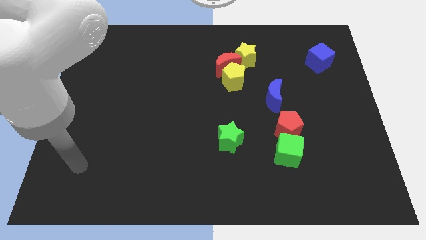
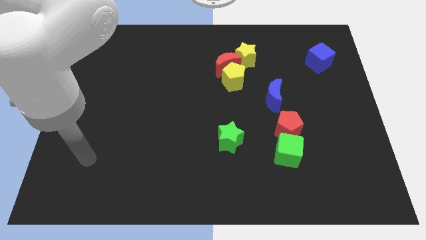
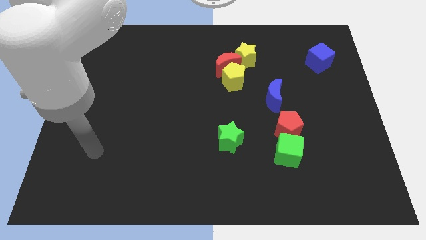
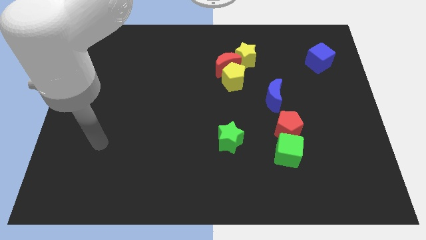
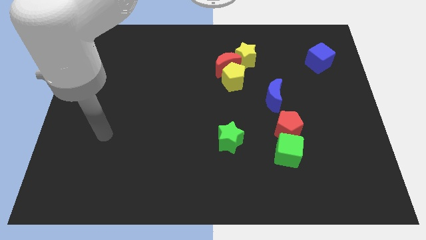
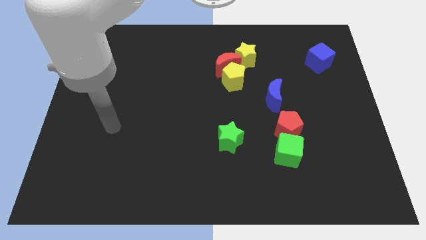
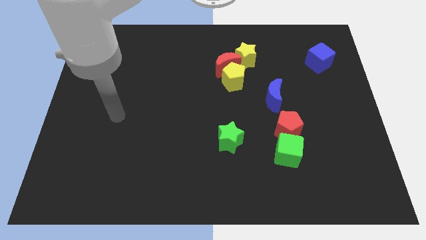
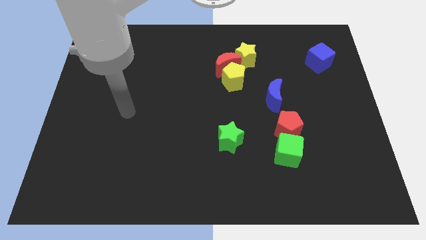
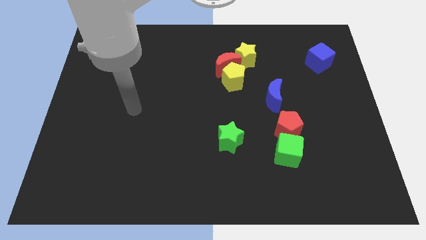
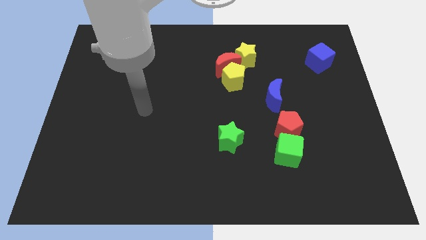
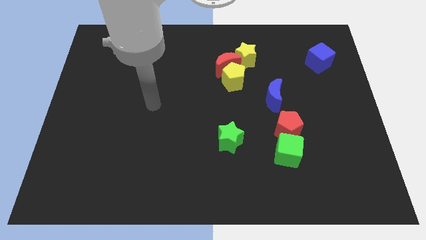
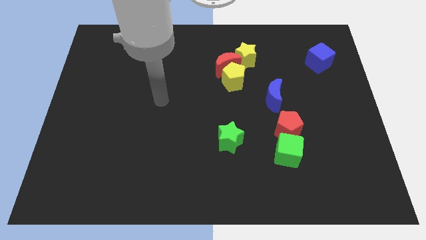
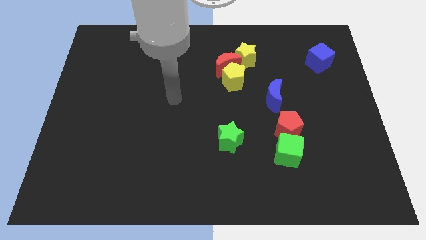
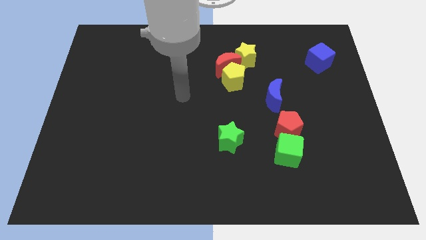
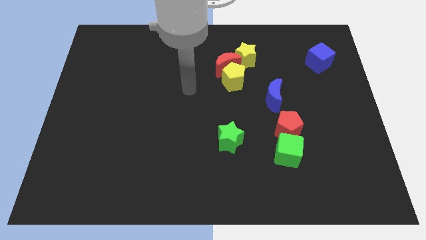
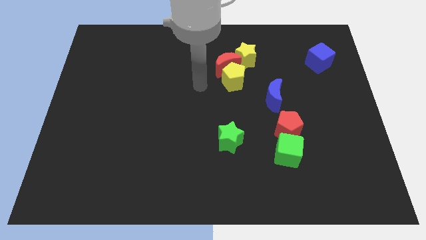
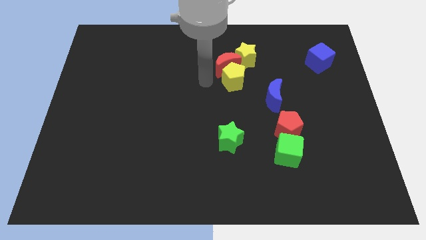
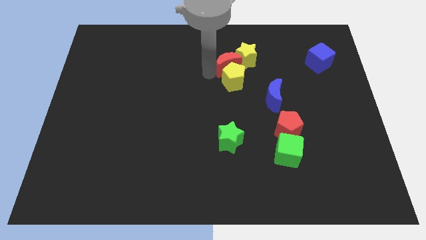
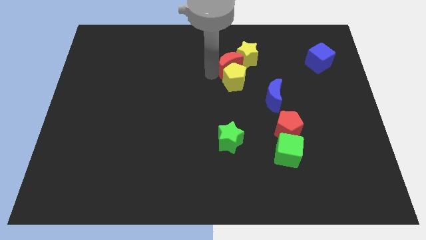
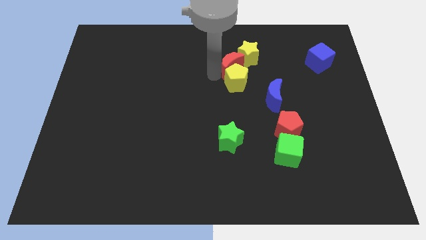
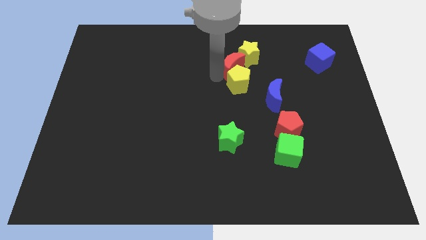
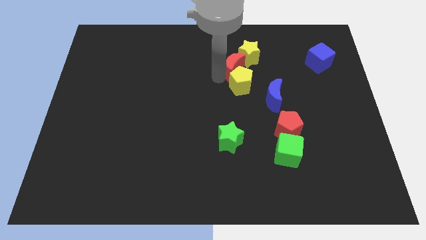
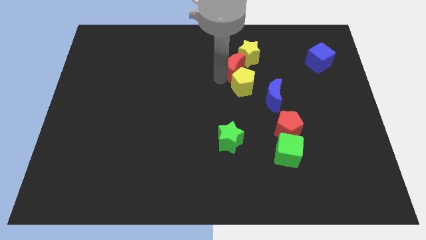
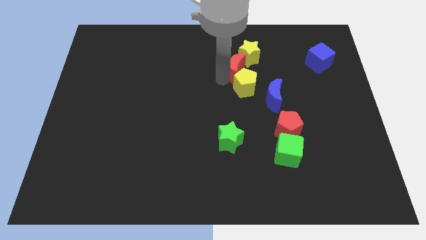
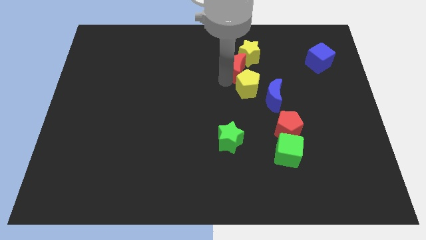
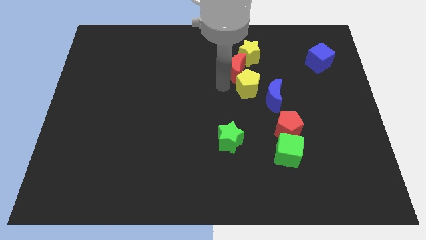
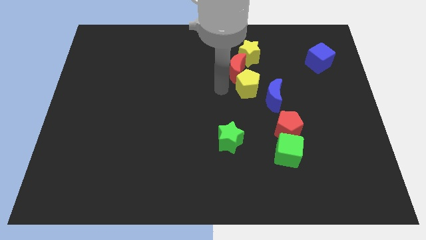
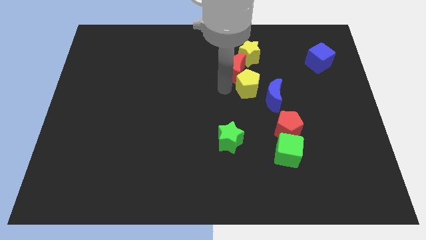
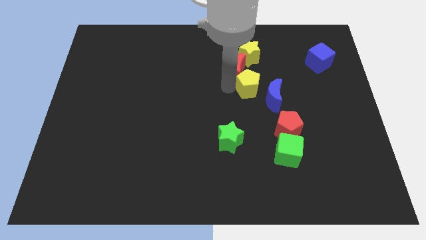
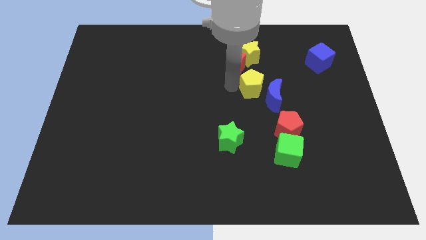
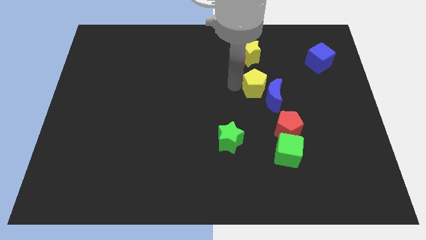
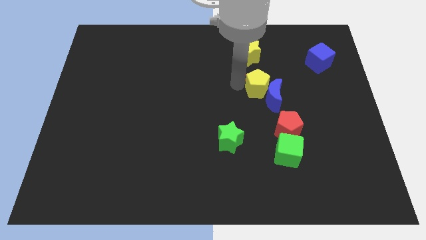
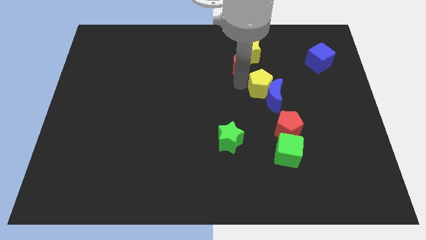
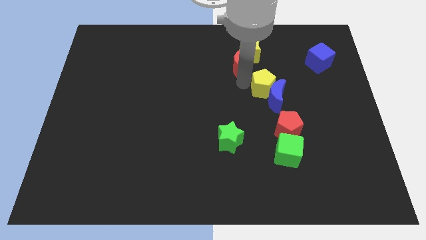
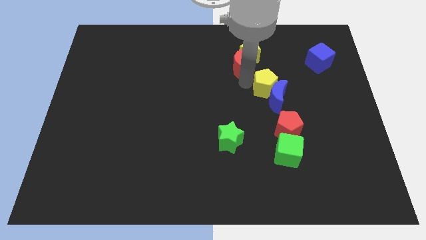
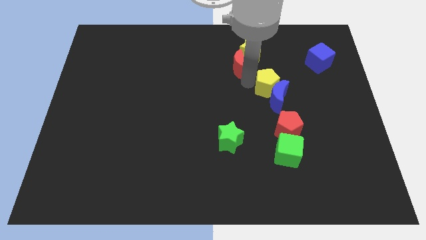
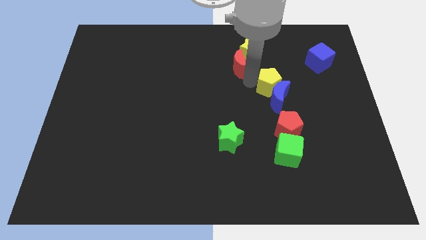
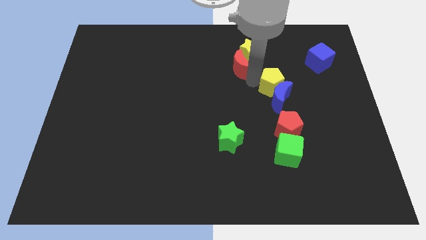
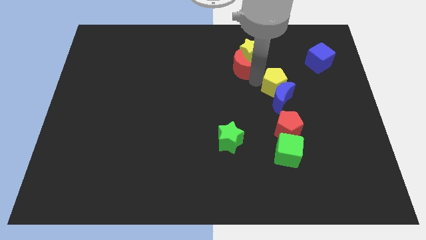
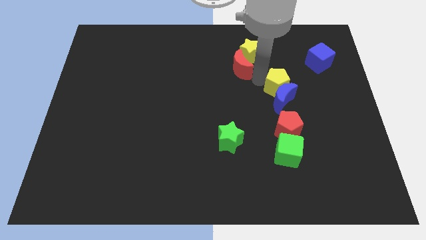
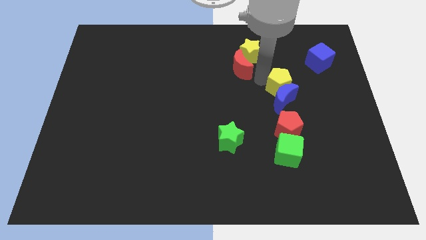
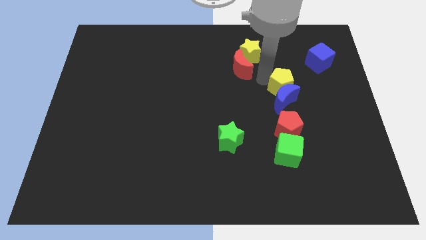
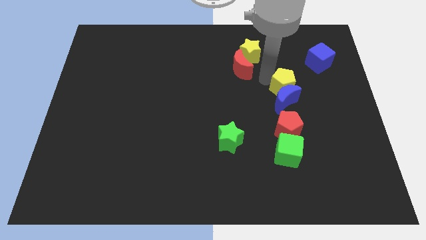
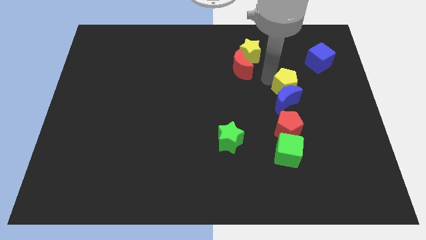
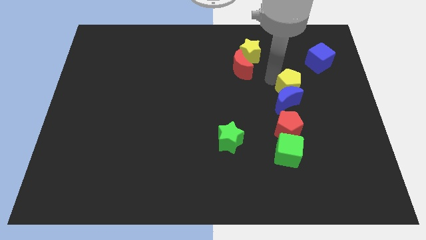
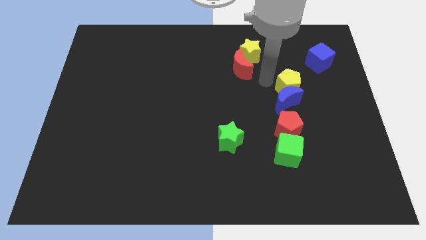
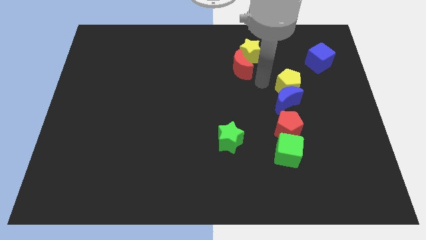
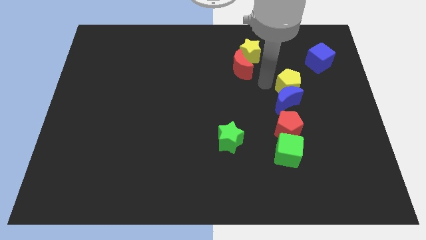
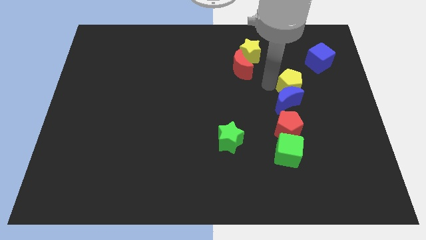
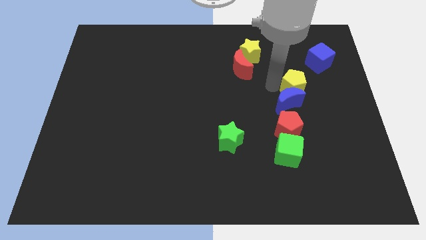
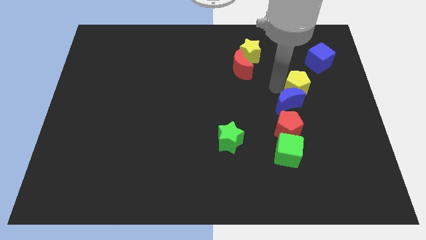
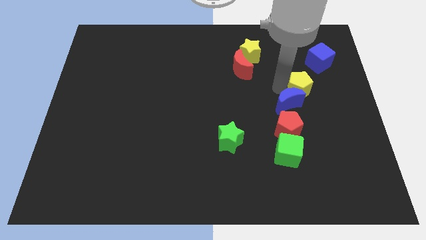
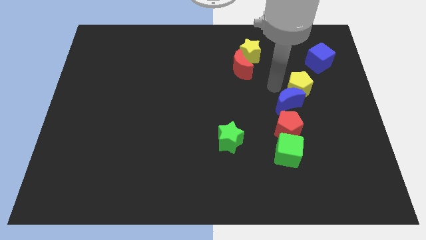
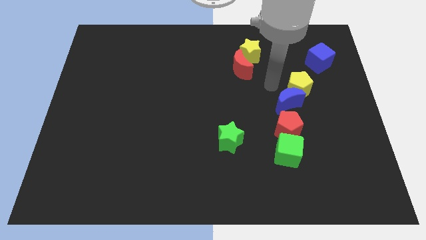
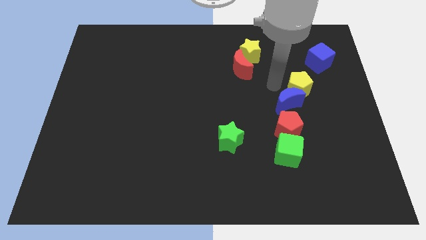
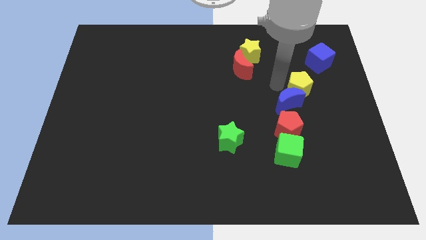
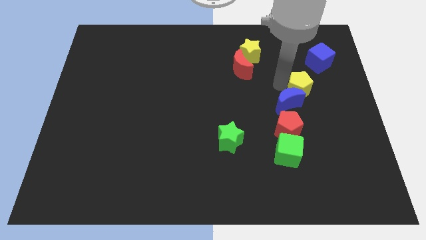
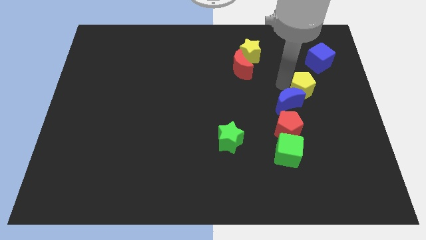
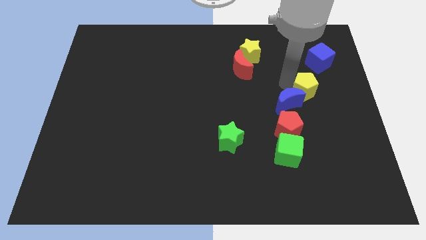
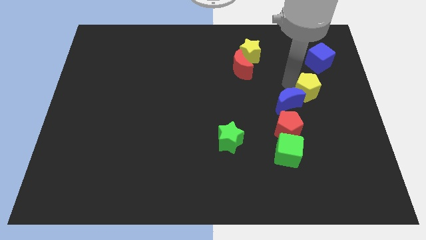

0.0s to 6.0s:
slide the yellow pentagon to the bottom side of the blue cube
